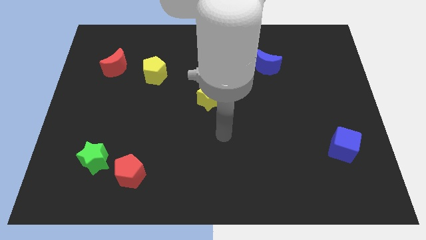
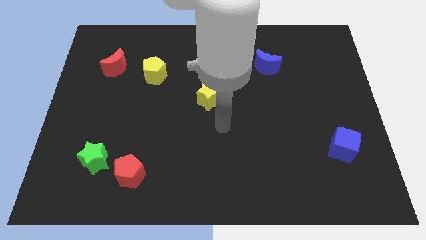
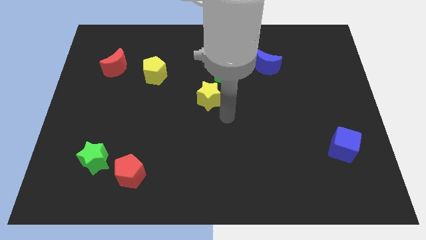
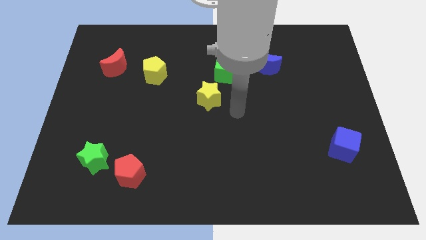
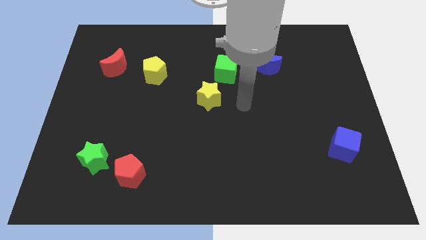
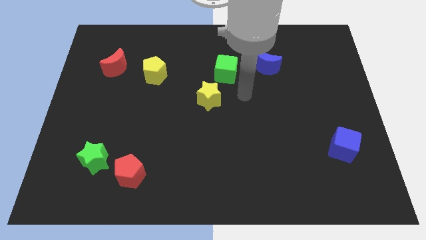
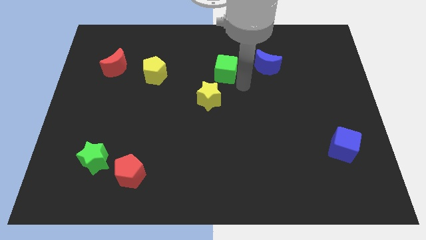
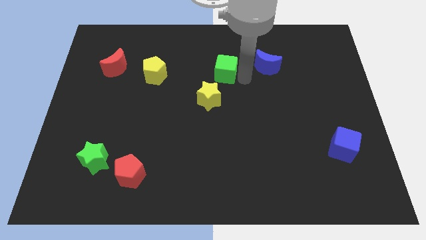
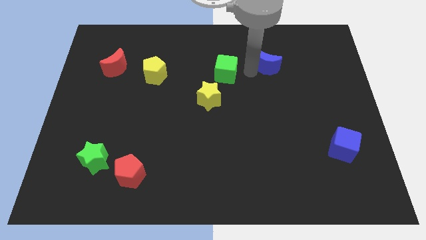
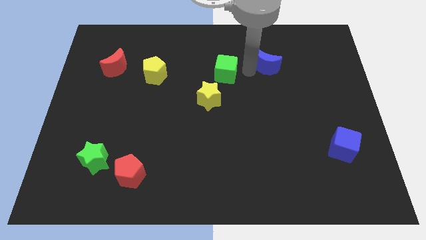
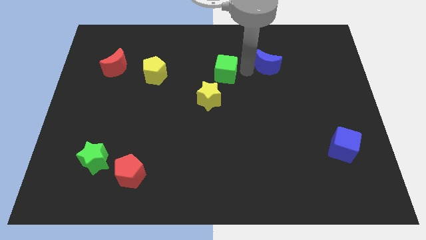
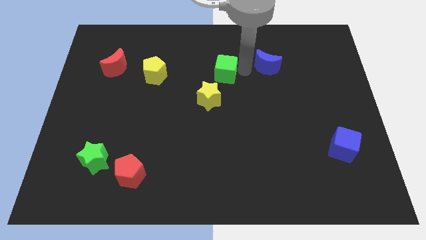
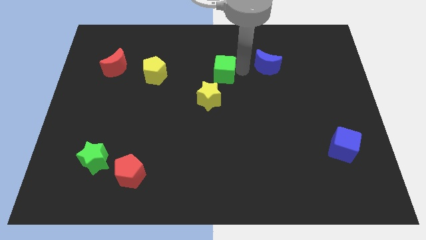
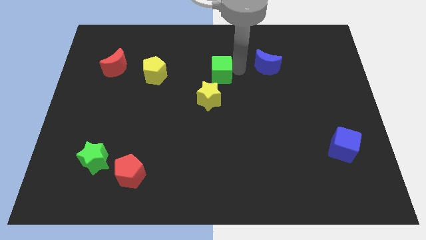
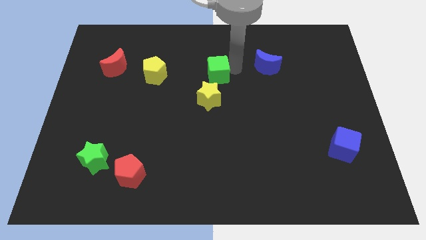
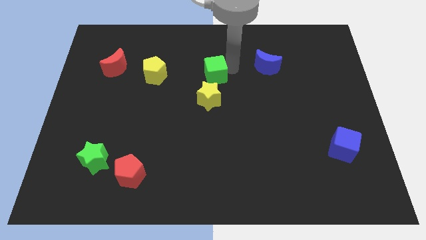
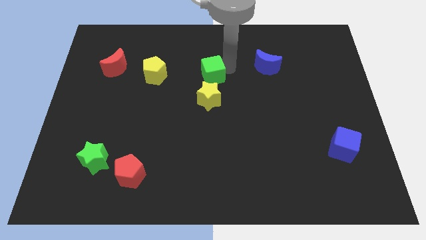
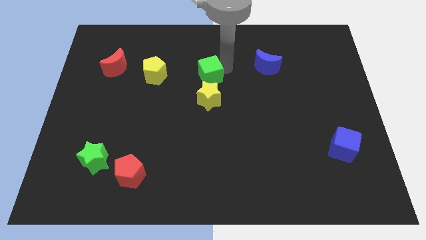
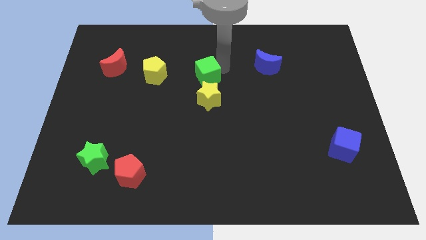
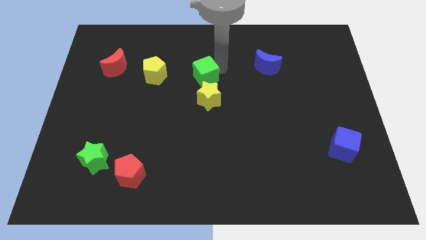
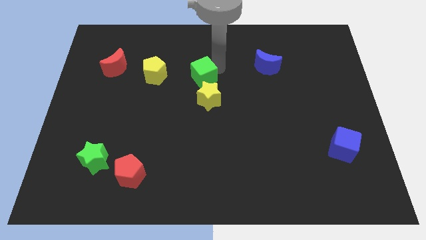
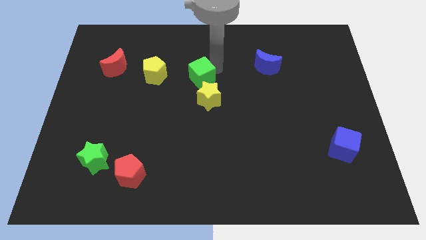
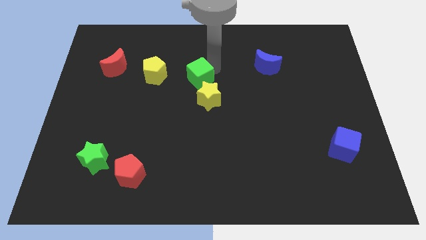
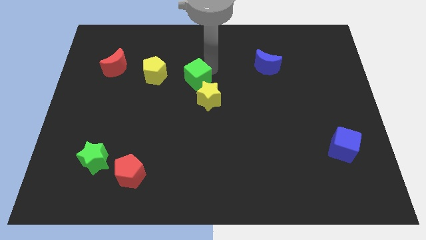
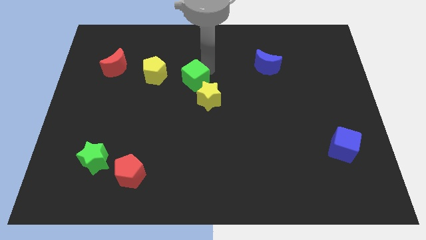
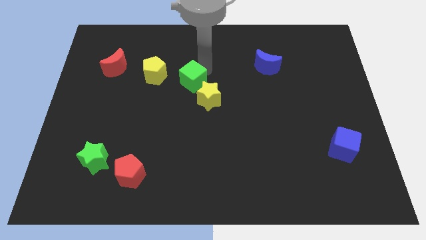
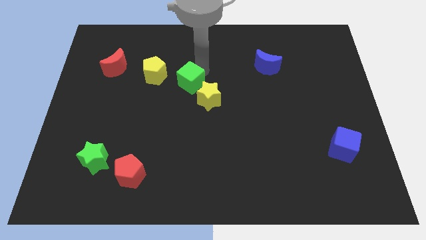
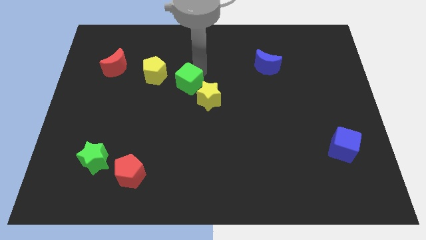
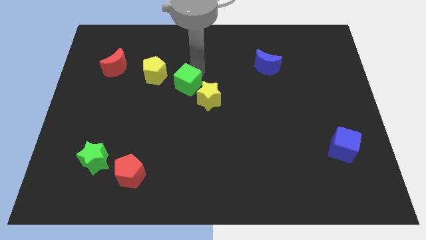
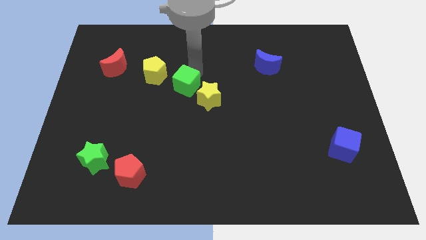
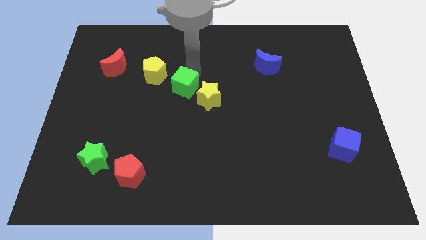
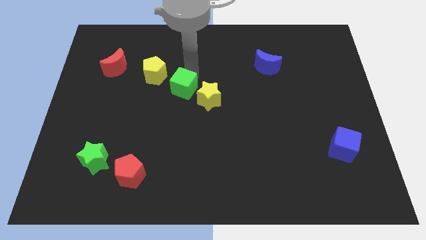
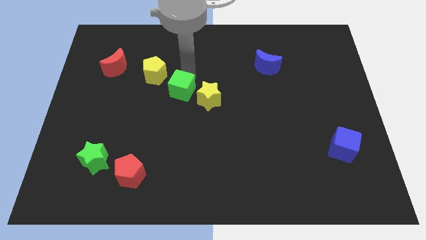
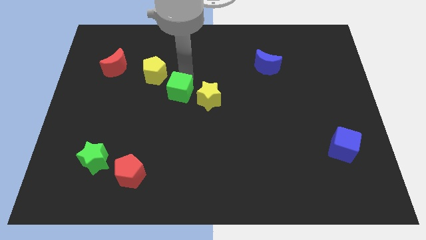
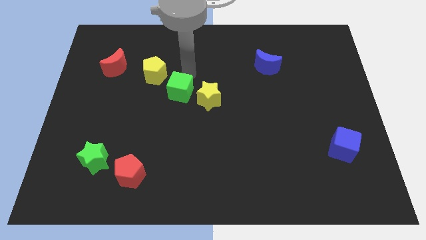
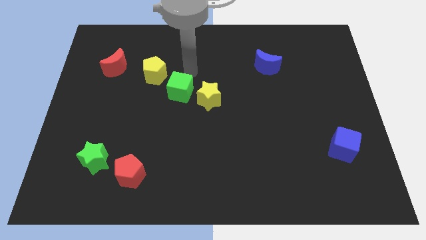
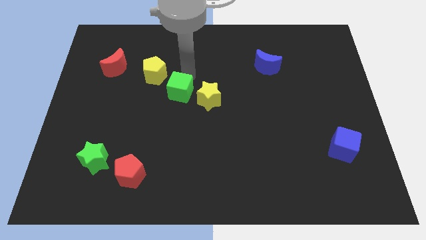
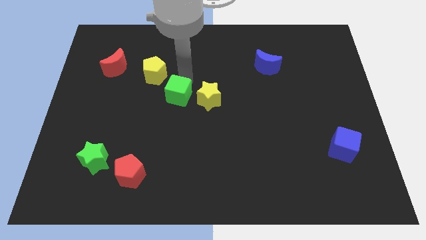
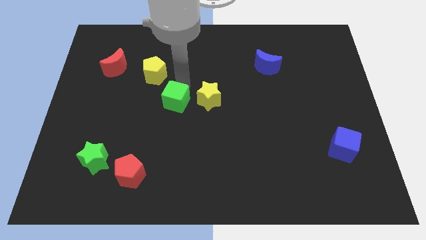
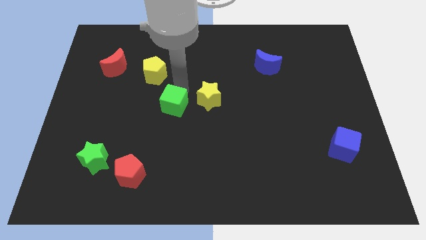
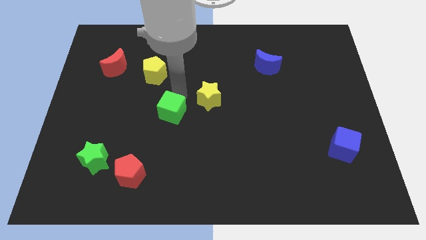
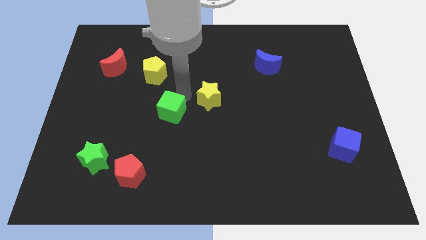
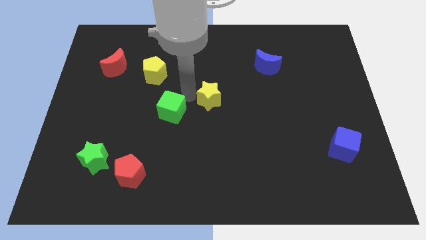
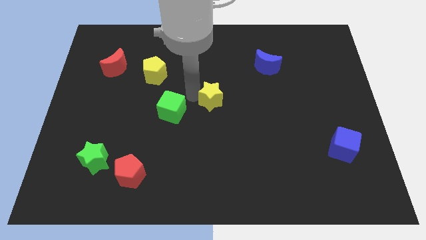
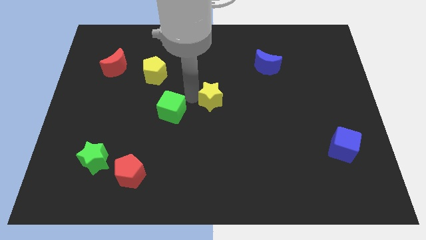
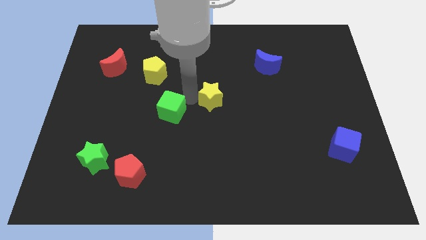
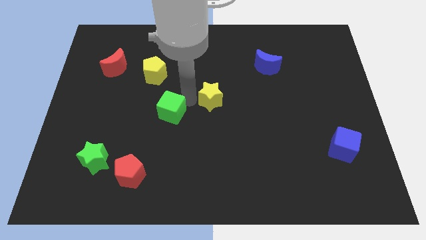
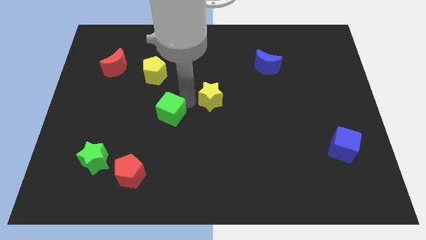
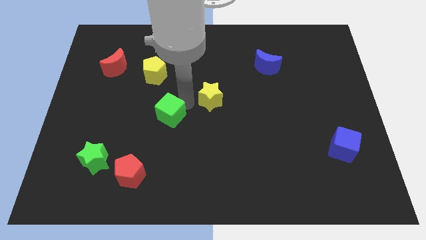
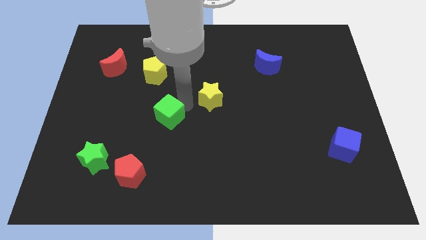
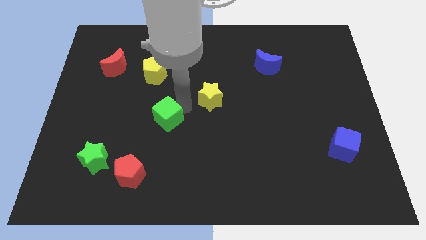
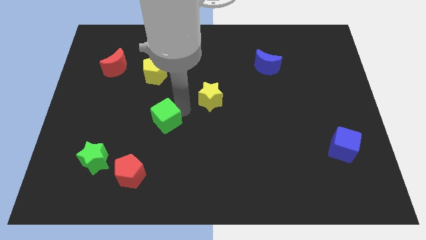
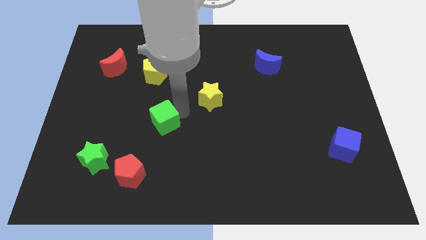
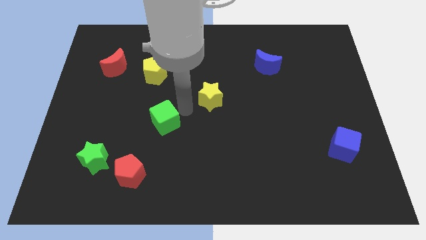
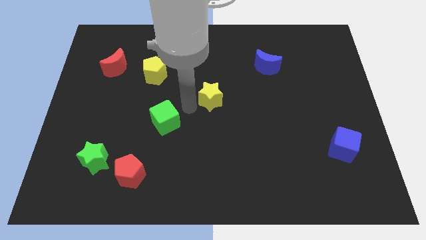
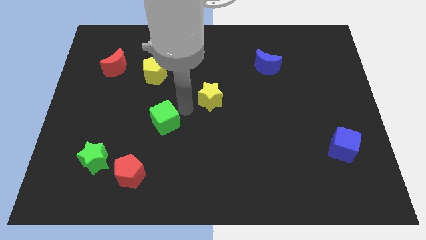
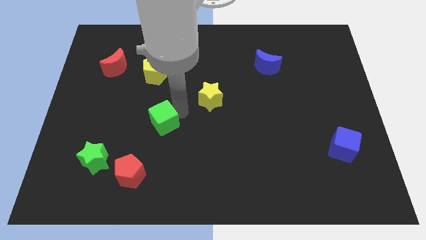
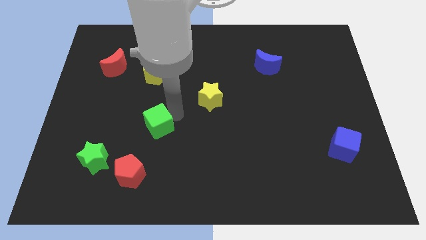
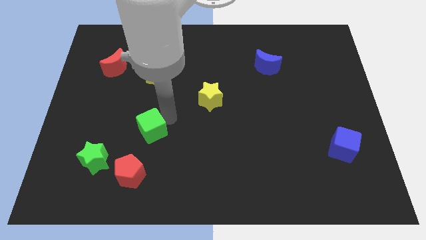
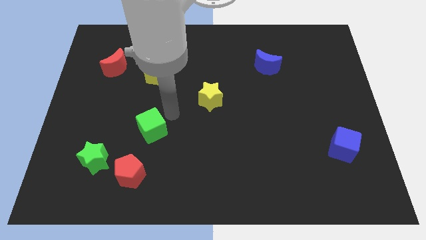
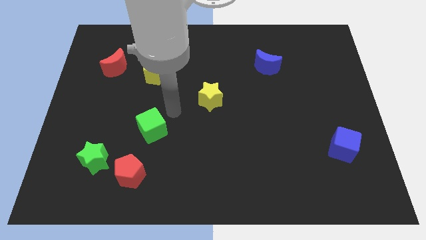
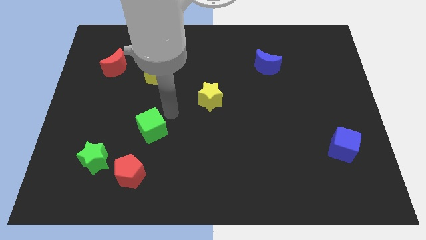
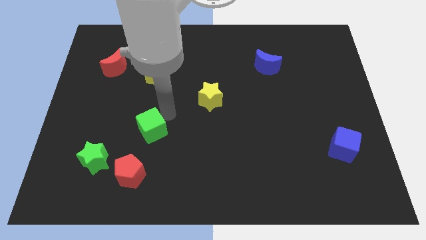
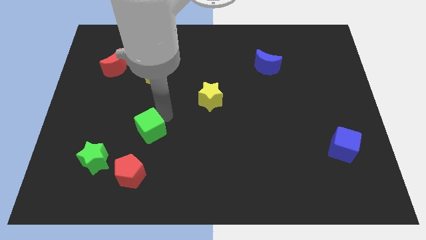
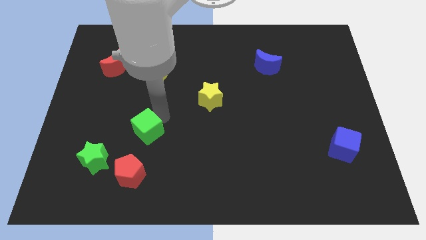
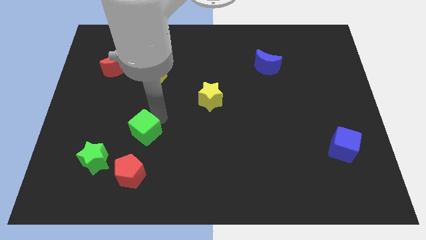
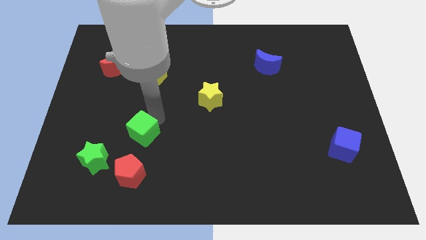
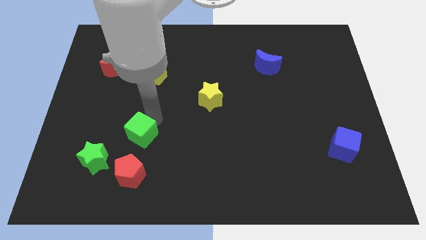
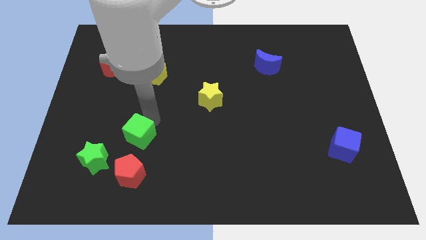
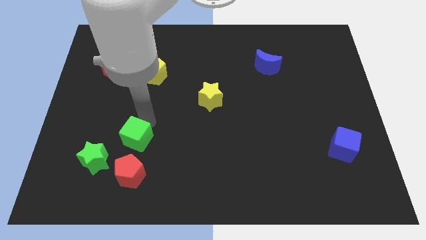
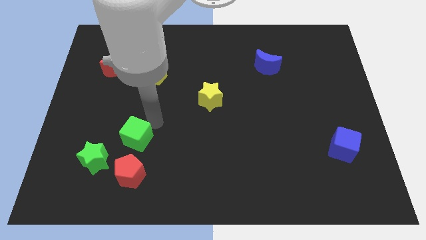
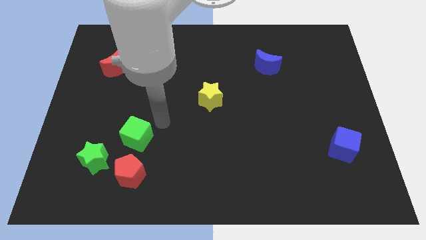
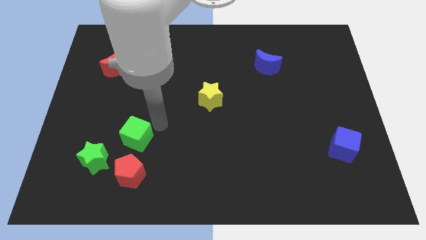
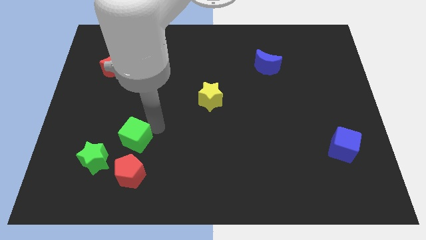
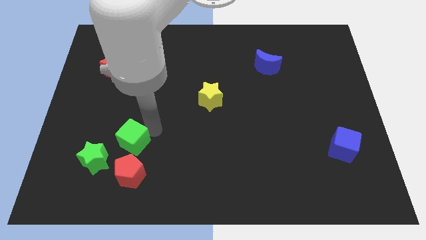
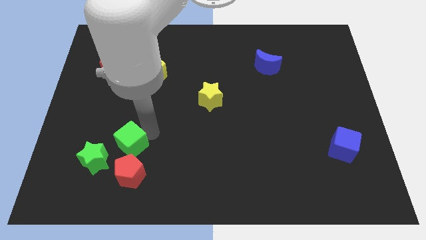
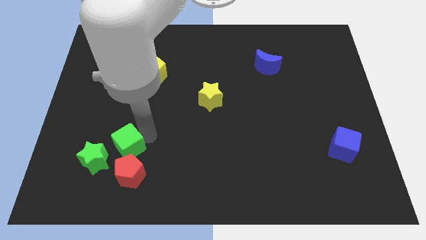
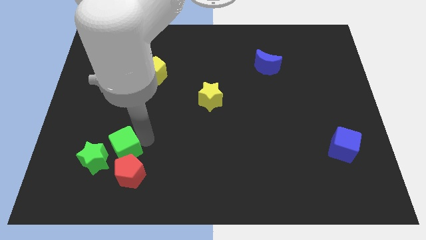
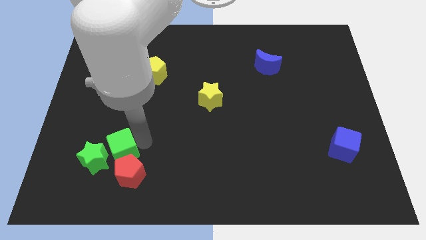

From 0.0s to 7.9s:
slide the green cube to the green star
